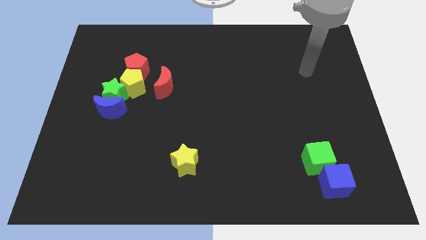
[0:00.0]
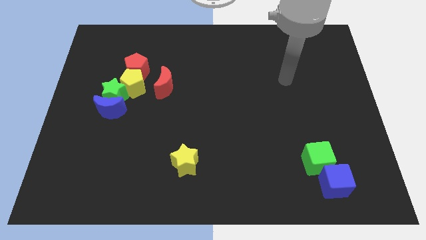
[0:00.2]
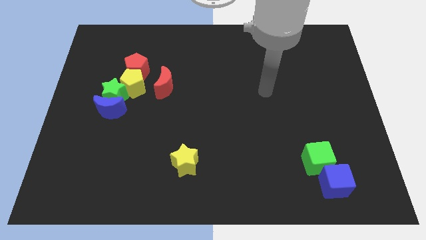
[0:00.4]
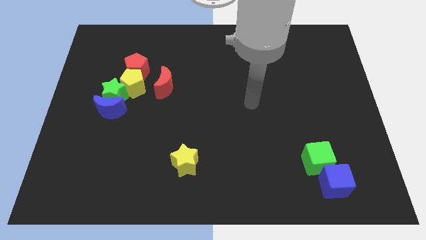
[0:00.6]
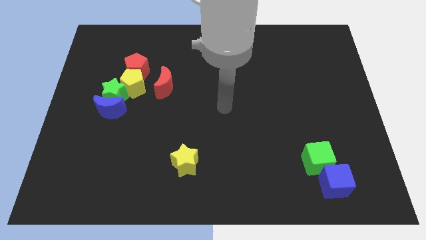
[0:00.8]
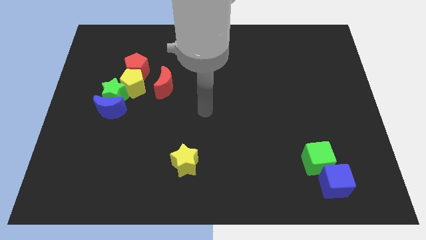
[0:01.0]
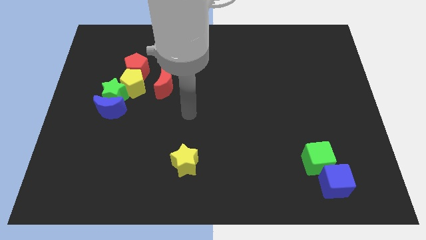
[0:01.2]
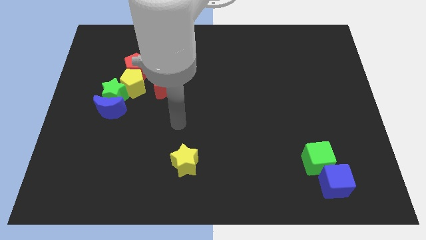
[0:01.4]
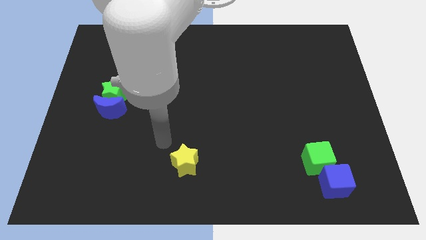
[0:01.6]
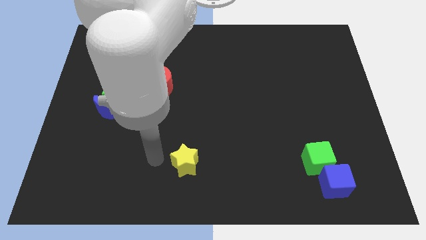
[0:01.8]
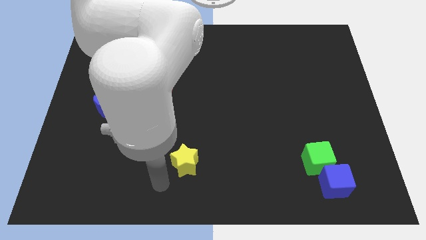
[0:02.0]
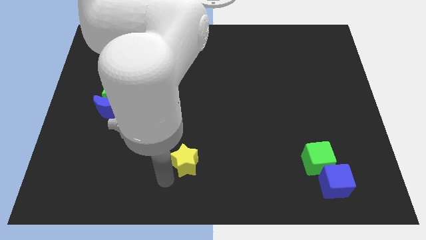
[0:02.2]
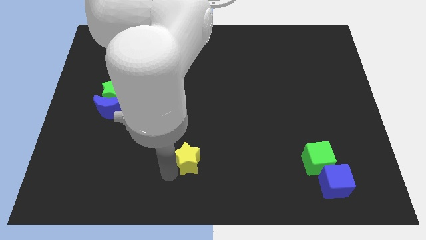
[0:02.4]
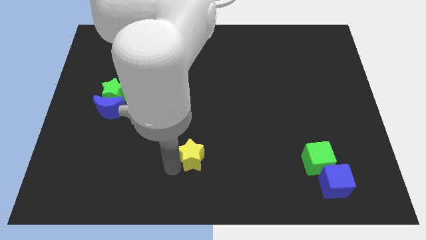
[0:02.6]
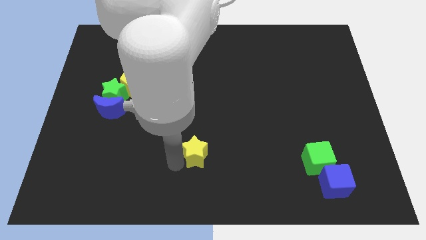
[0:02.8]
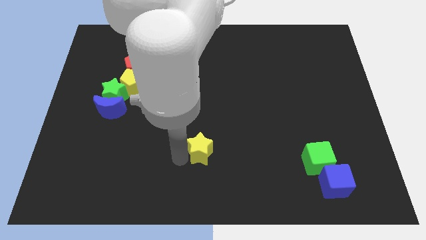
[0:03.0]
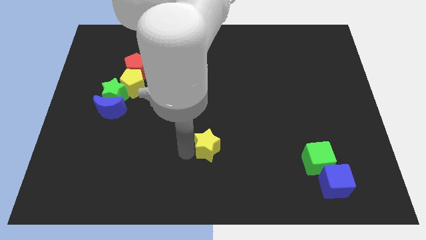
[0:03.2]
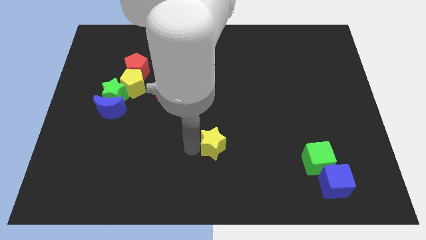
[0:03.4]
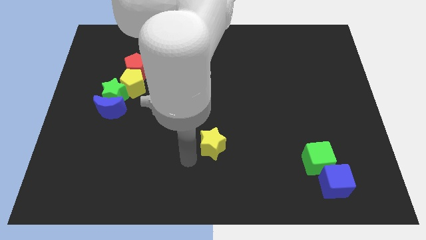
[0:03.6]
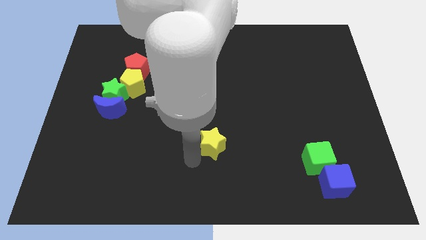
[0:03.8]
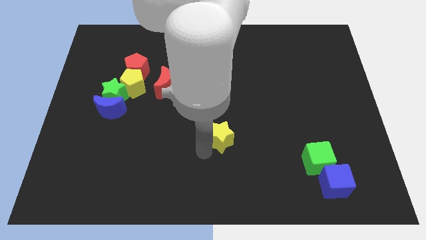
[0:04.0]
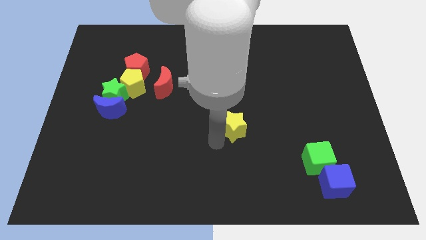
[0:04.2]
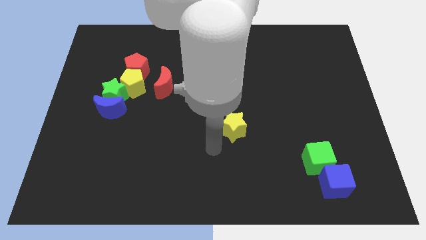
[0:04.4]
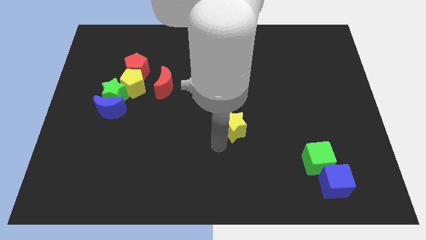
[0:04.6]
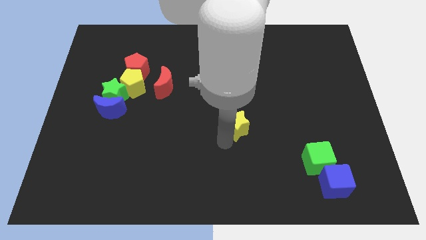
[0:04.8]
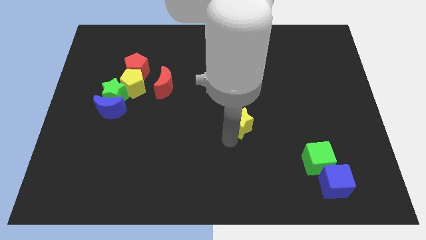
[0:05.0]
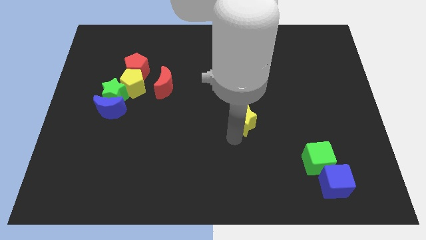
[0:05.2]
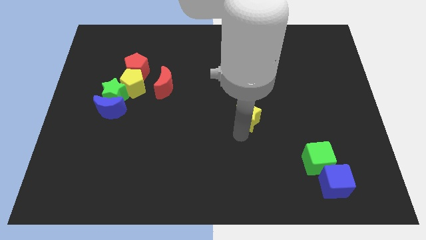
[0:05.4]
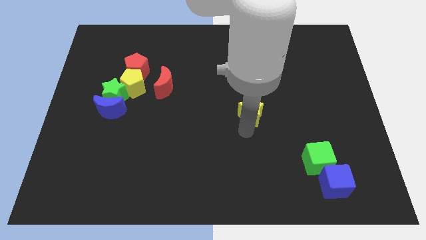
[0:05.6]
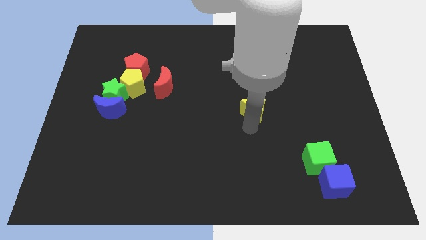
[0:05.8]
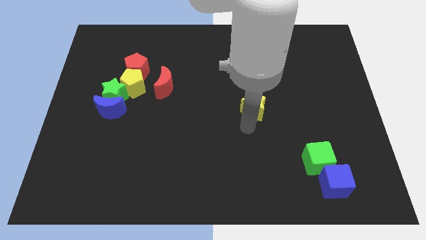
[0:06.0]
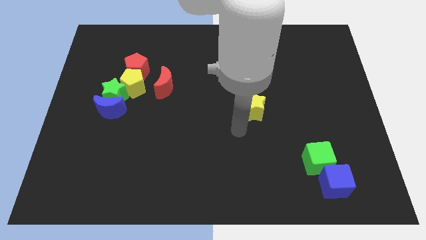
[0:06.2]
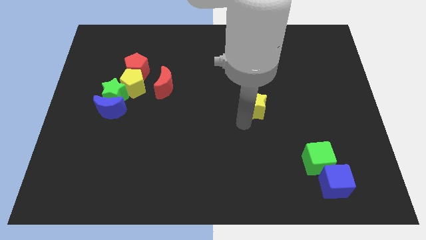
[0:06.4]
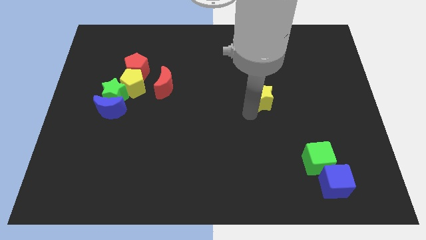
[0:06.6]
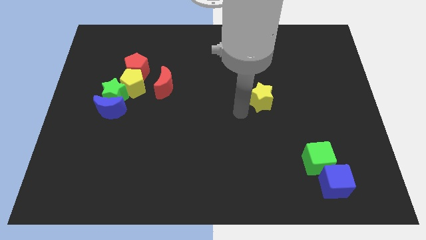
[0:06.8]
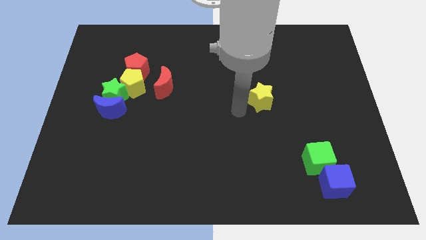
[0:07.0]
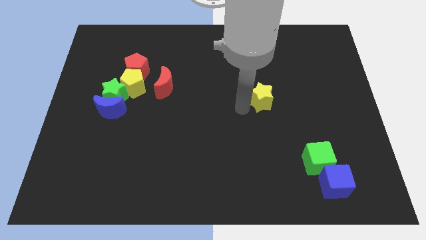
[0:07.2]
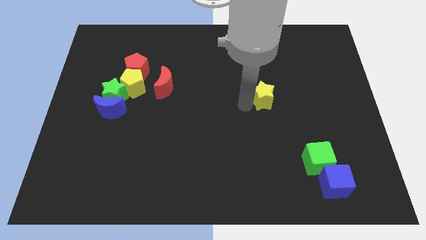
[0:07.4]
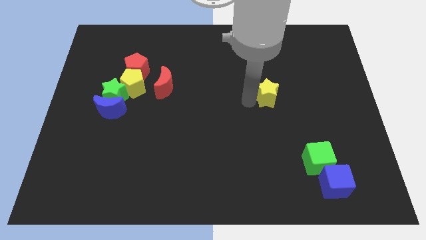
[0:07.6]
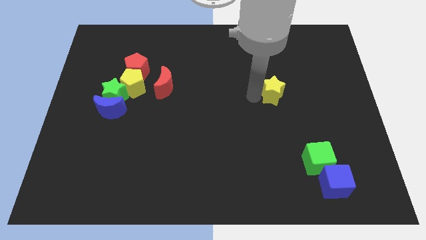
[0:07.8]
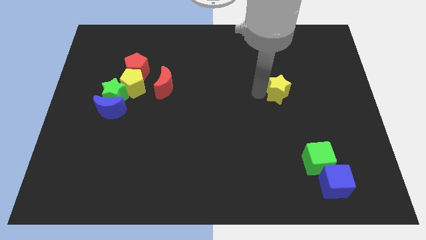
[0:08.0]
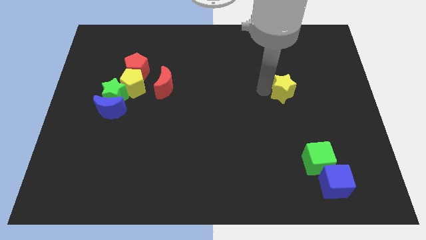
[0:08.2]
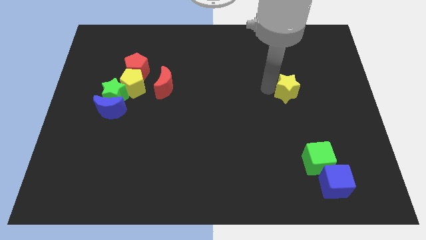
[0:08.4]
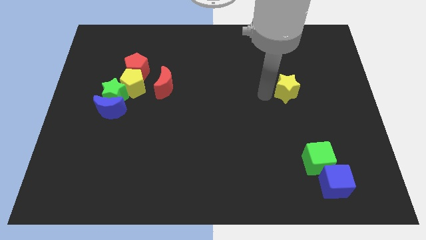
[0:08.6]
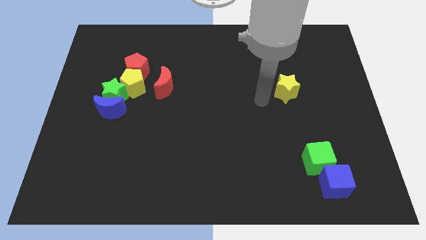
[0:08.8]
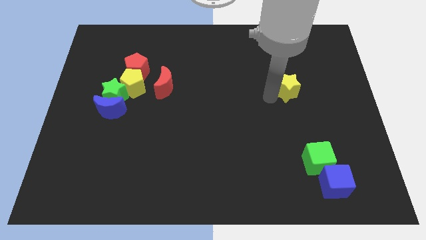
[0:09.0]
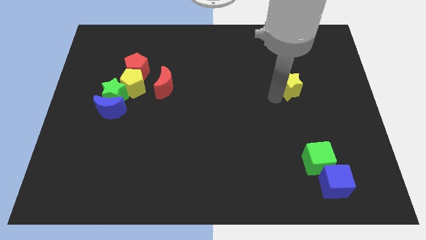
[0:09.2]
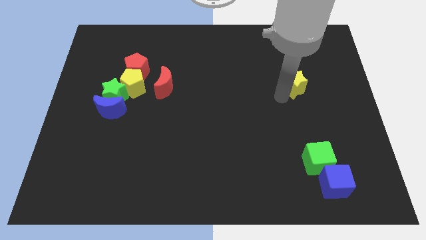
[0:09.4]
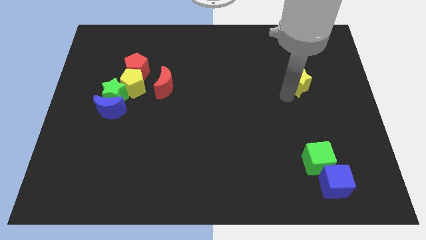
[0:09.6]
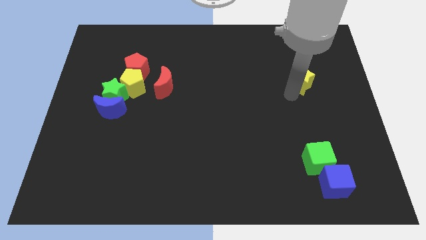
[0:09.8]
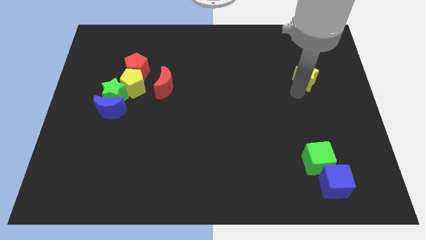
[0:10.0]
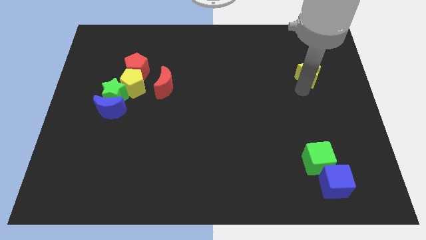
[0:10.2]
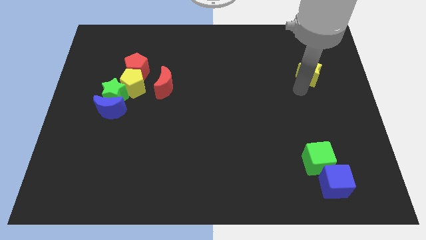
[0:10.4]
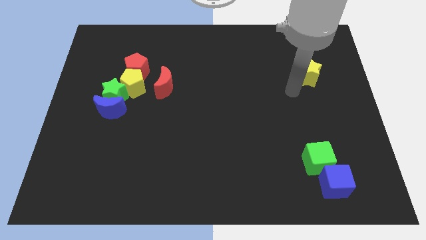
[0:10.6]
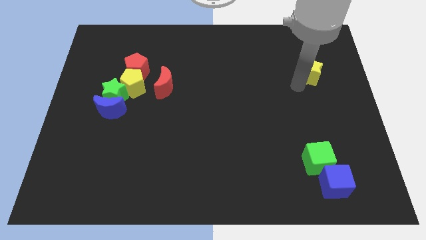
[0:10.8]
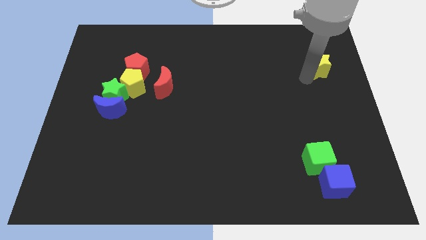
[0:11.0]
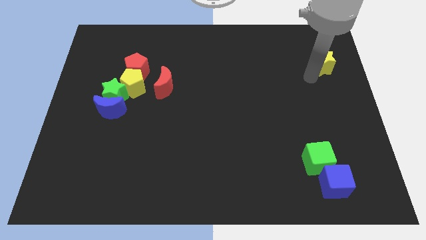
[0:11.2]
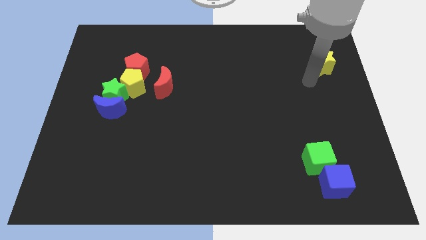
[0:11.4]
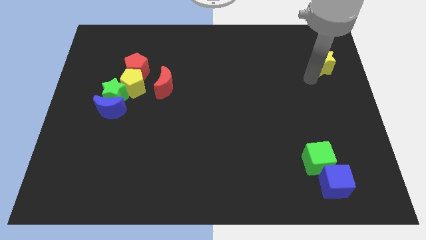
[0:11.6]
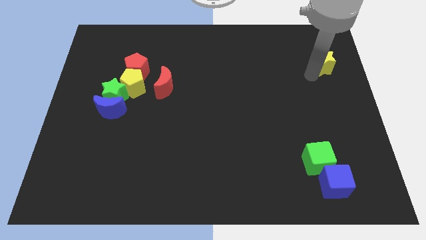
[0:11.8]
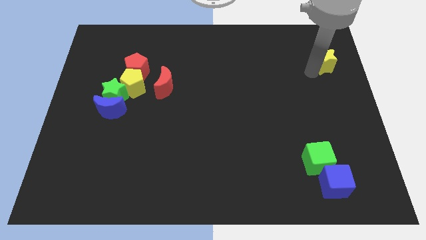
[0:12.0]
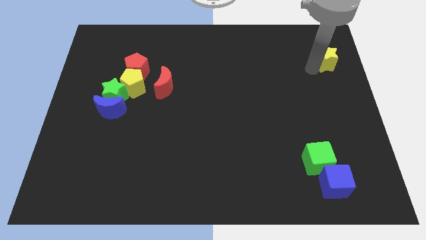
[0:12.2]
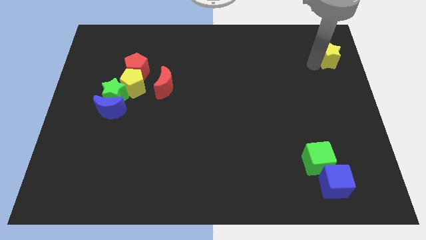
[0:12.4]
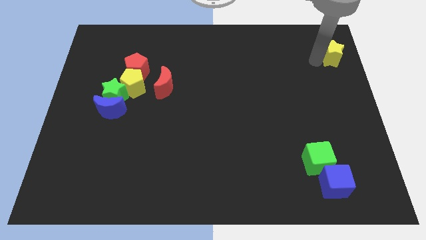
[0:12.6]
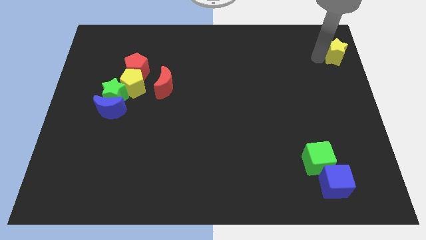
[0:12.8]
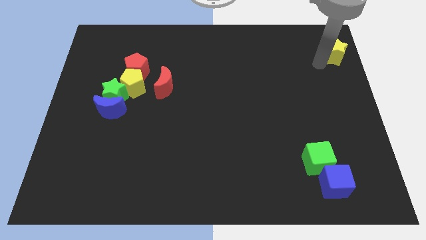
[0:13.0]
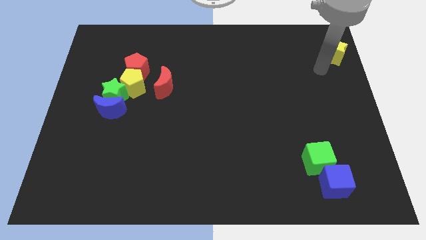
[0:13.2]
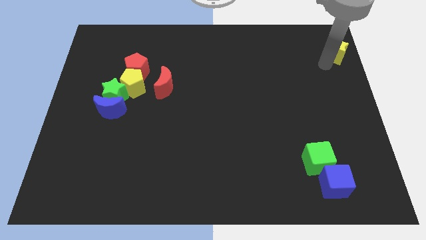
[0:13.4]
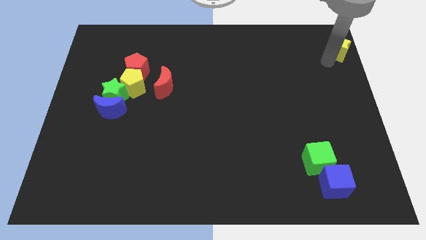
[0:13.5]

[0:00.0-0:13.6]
move the yellow star to the top right corner
